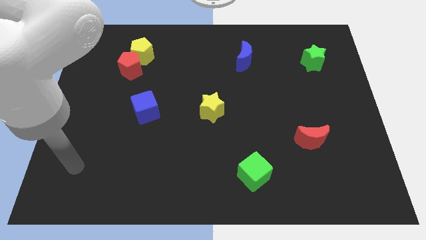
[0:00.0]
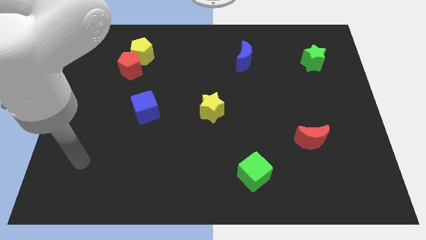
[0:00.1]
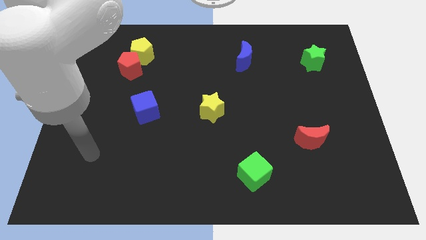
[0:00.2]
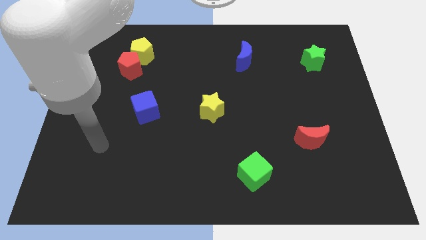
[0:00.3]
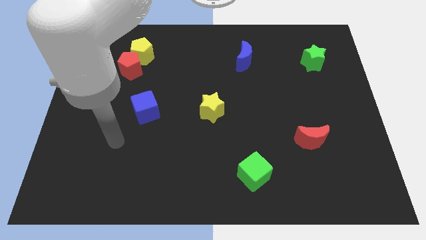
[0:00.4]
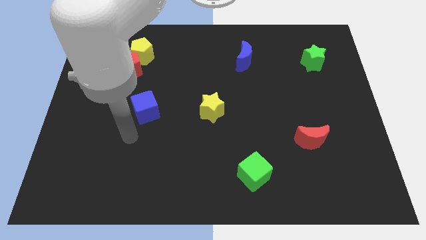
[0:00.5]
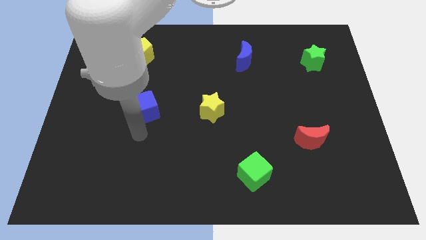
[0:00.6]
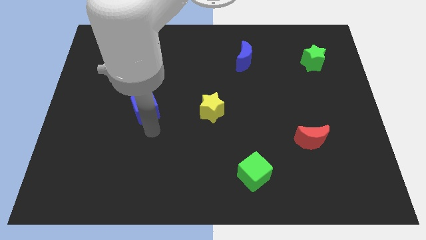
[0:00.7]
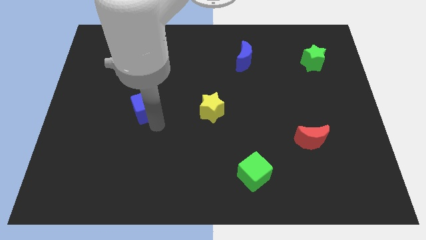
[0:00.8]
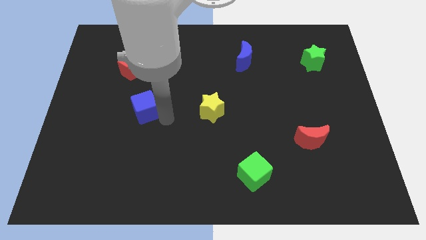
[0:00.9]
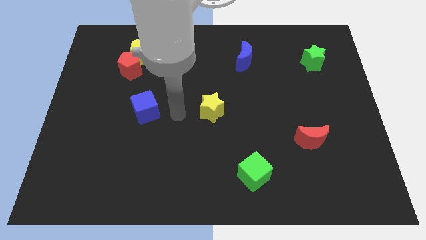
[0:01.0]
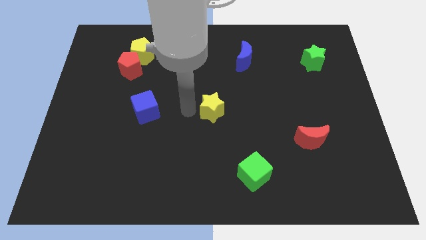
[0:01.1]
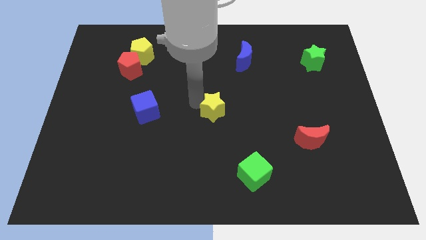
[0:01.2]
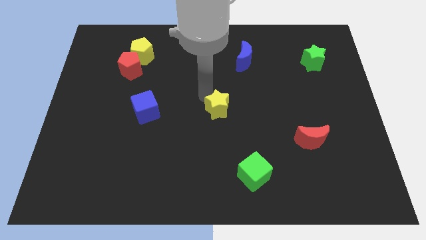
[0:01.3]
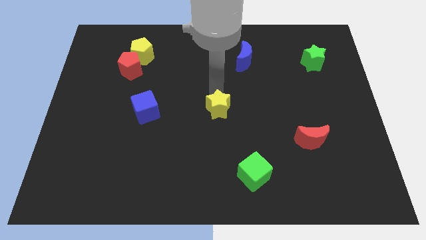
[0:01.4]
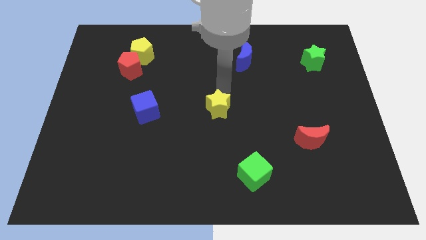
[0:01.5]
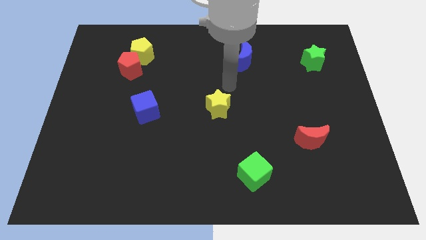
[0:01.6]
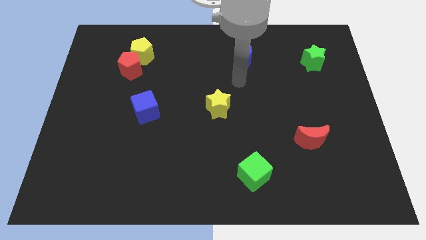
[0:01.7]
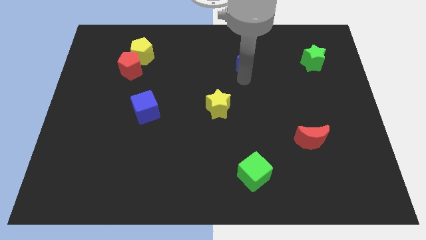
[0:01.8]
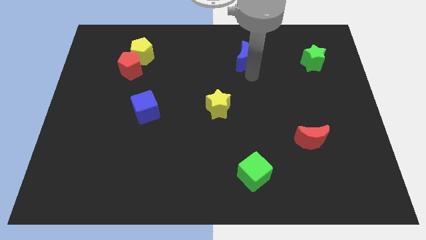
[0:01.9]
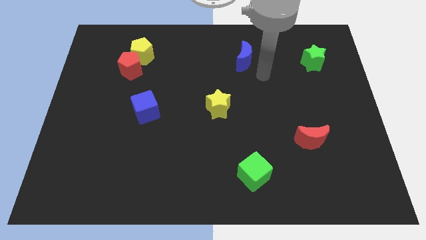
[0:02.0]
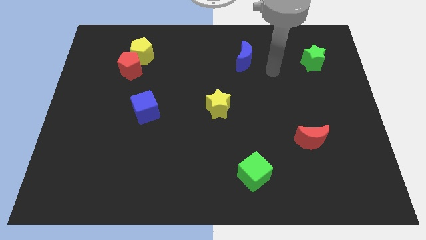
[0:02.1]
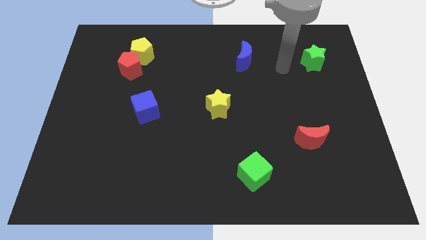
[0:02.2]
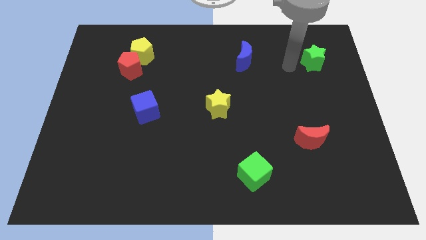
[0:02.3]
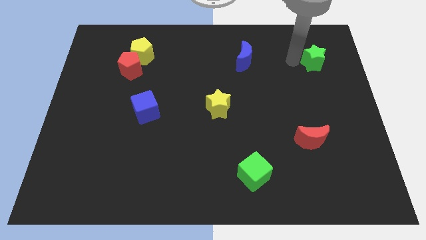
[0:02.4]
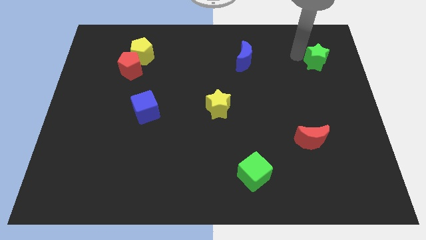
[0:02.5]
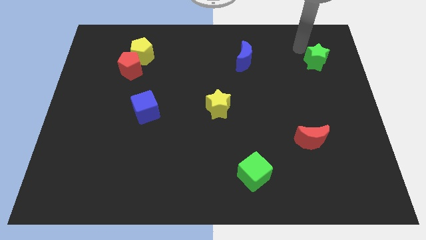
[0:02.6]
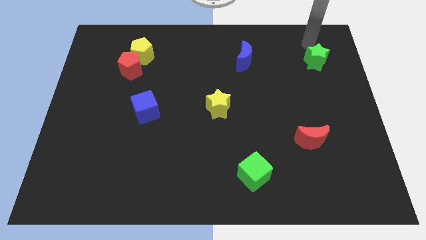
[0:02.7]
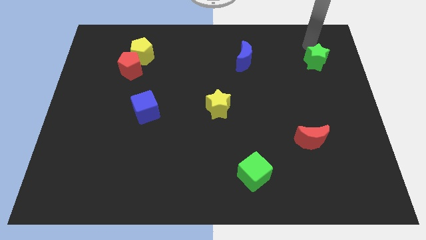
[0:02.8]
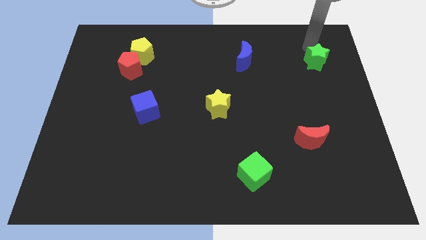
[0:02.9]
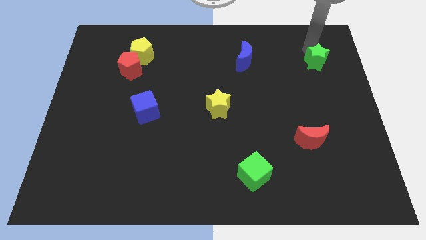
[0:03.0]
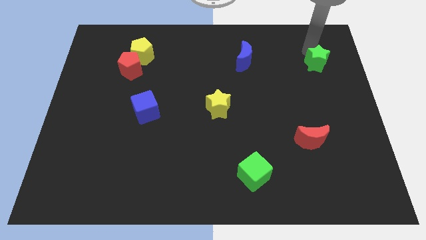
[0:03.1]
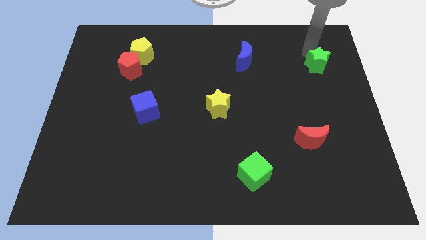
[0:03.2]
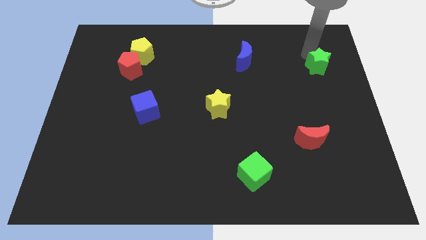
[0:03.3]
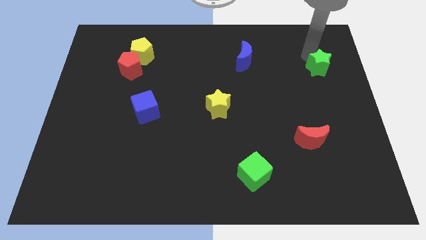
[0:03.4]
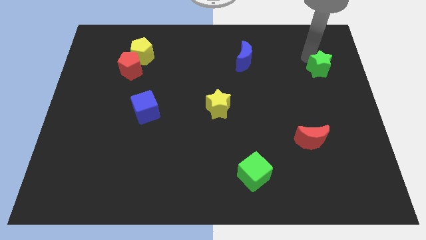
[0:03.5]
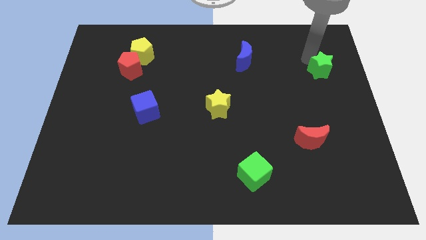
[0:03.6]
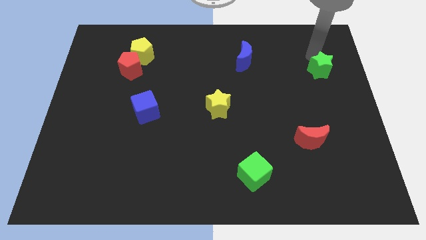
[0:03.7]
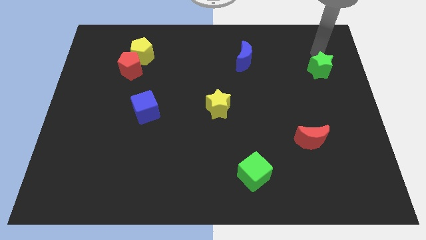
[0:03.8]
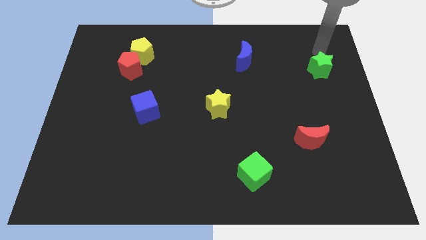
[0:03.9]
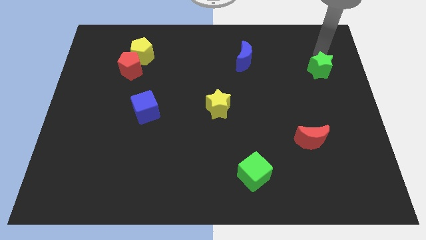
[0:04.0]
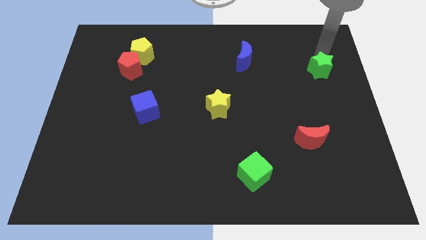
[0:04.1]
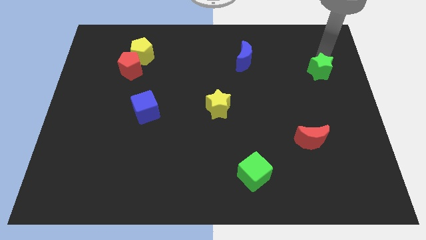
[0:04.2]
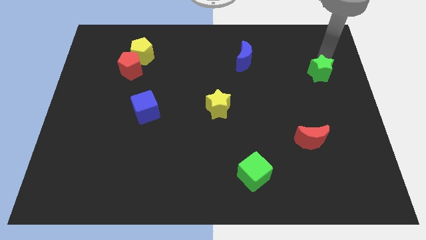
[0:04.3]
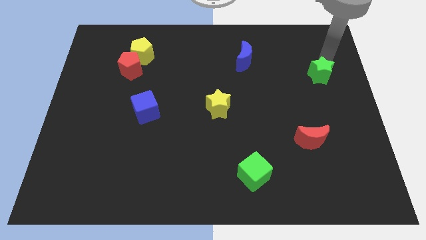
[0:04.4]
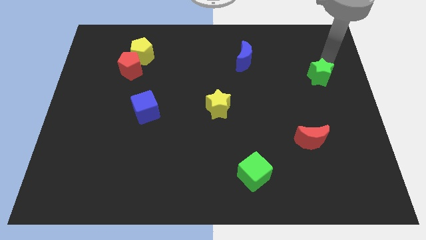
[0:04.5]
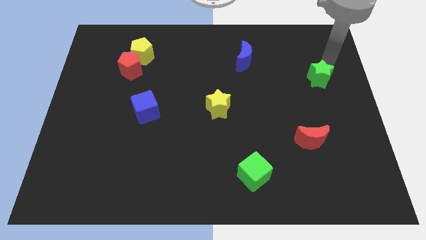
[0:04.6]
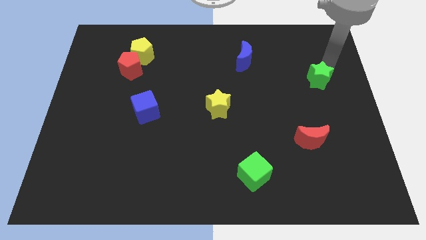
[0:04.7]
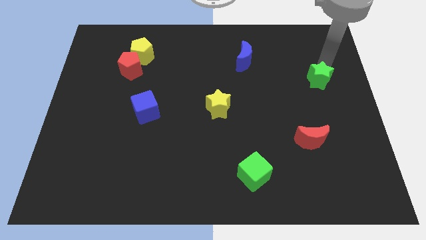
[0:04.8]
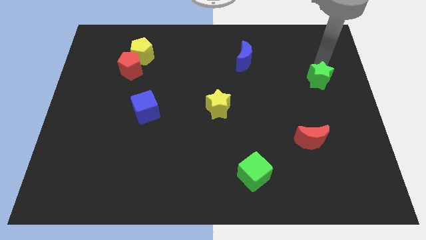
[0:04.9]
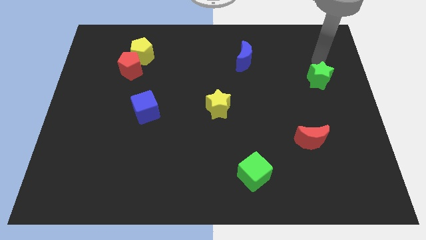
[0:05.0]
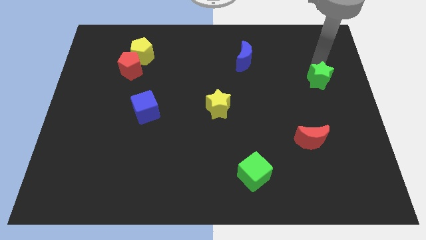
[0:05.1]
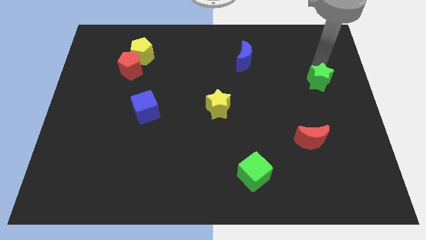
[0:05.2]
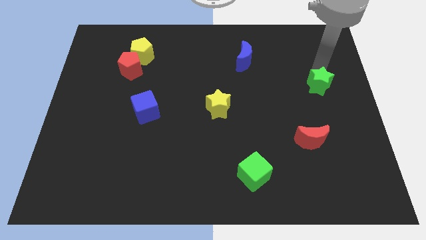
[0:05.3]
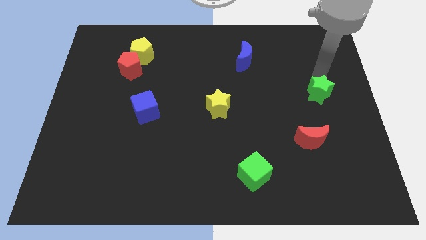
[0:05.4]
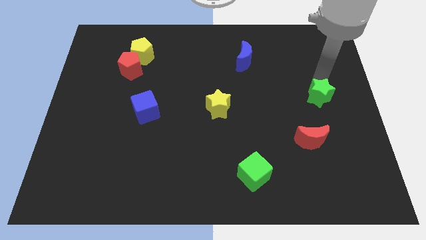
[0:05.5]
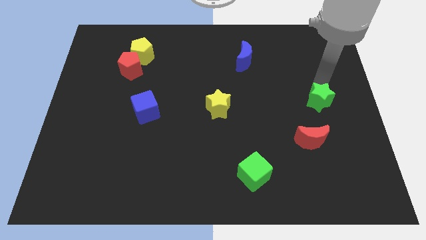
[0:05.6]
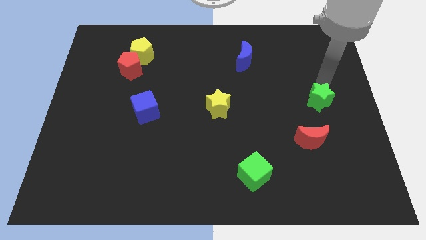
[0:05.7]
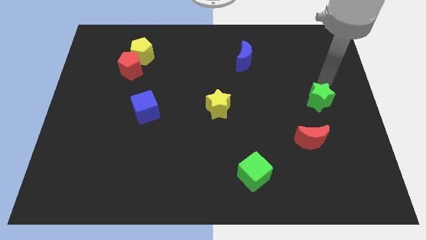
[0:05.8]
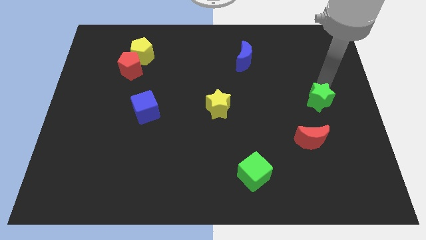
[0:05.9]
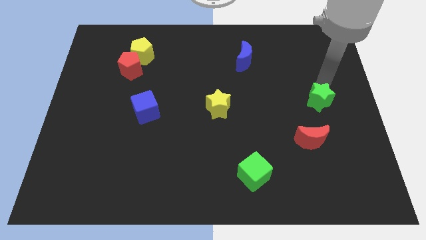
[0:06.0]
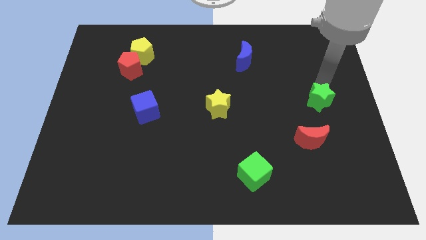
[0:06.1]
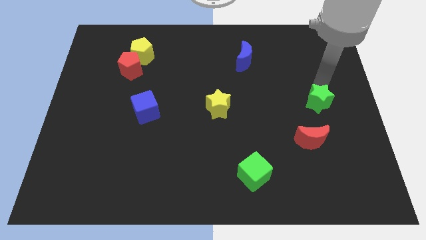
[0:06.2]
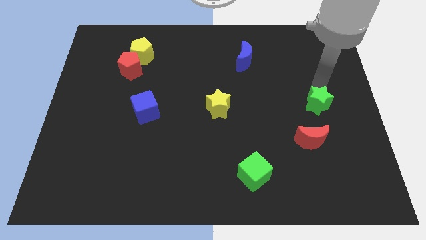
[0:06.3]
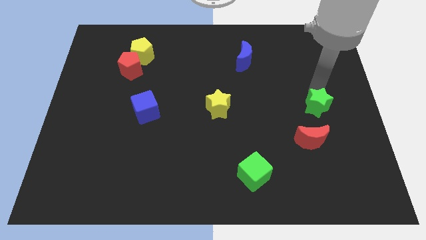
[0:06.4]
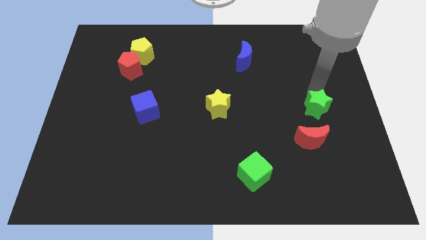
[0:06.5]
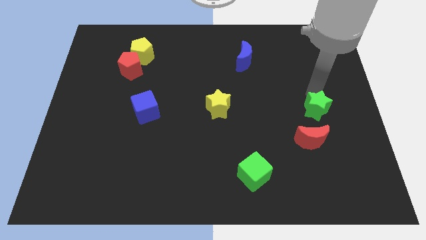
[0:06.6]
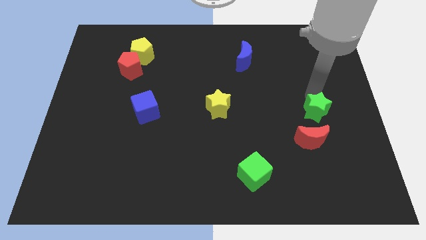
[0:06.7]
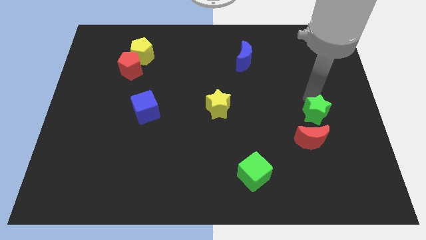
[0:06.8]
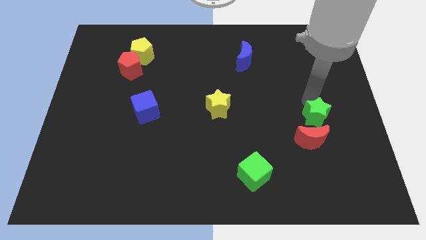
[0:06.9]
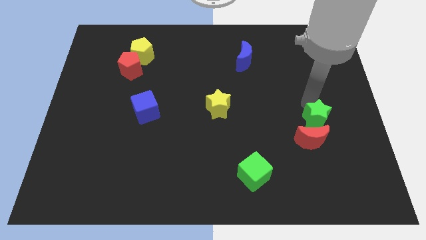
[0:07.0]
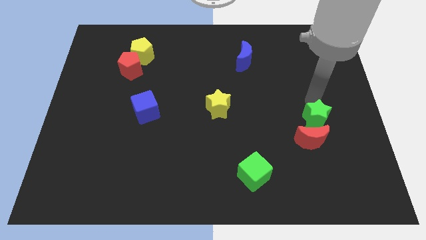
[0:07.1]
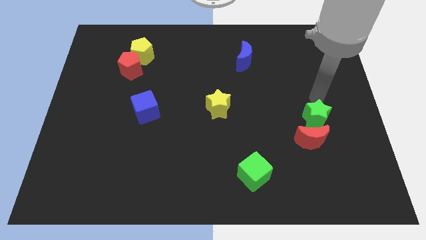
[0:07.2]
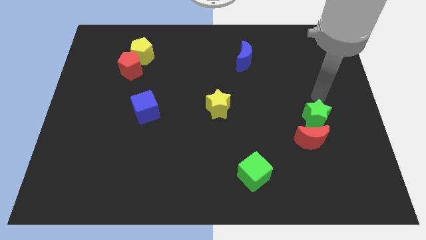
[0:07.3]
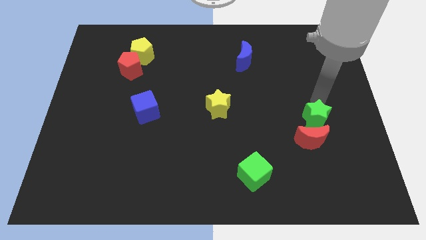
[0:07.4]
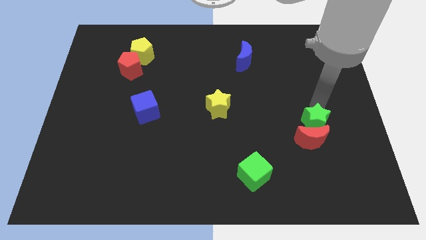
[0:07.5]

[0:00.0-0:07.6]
slide the green star towards the red moon
